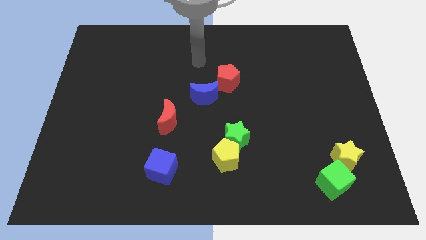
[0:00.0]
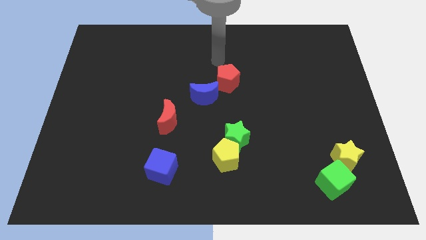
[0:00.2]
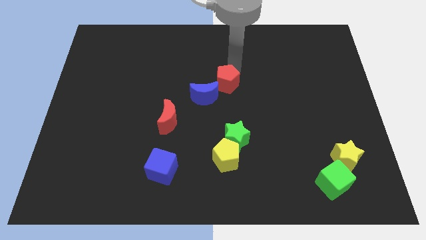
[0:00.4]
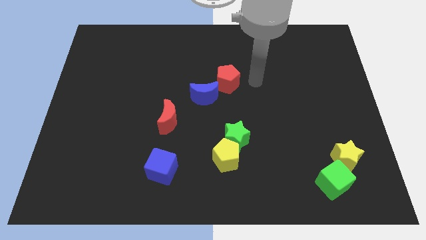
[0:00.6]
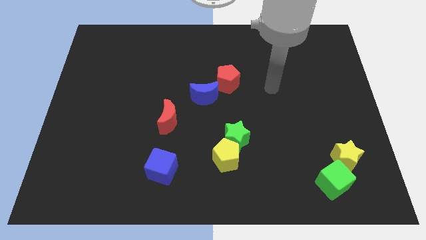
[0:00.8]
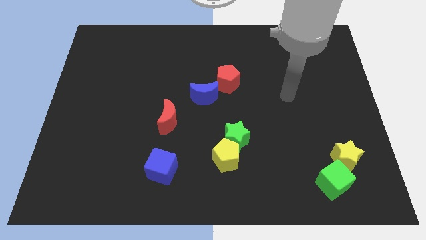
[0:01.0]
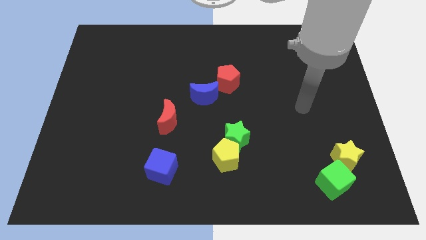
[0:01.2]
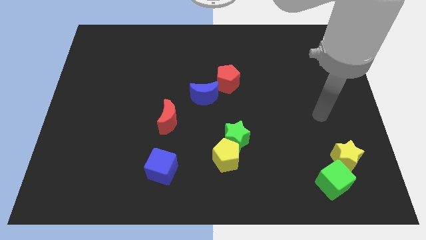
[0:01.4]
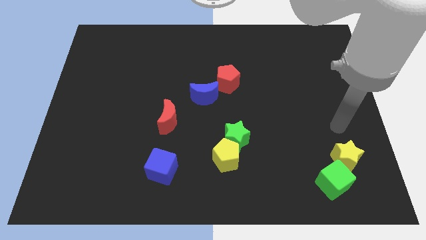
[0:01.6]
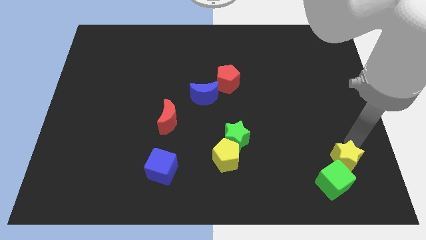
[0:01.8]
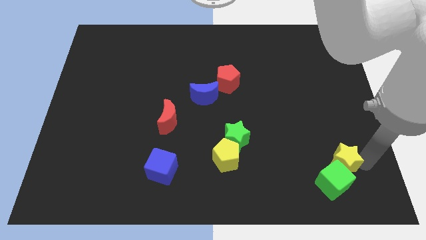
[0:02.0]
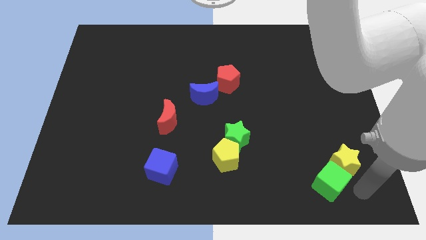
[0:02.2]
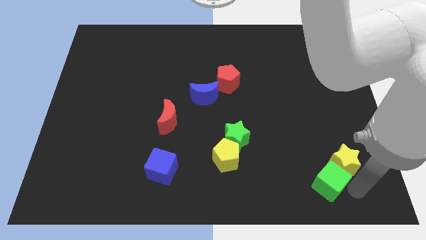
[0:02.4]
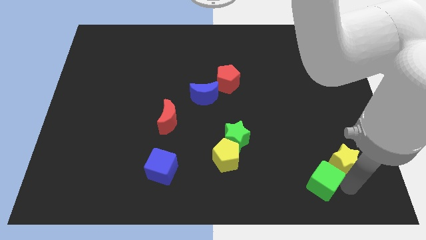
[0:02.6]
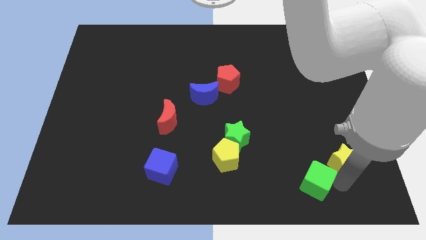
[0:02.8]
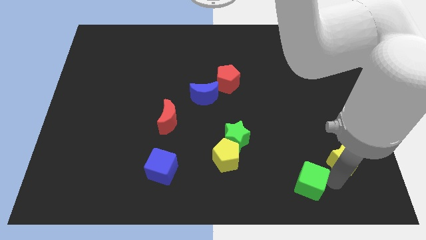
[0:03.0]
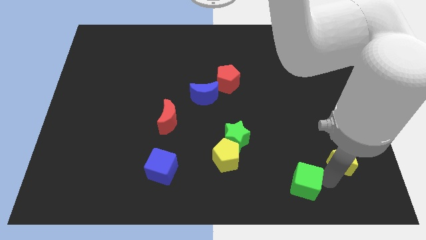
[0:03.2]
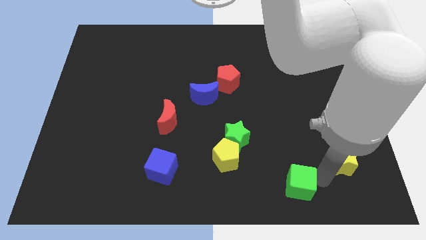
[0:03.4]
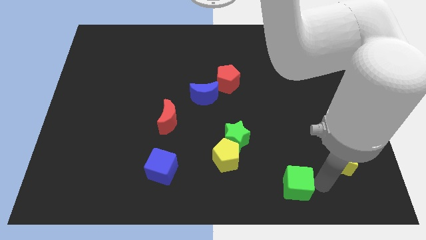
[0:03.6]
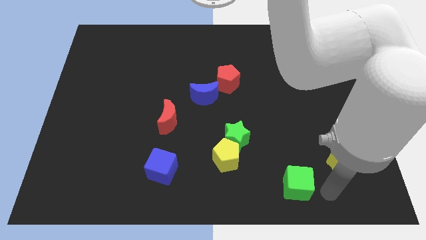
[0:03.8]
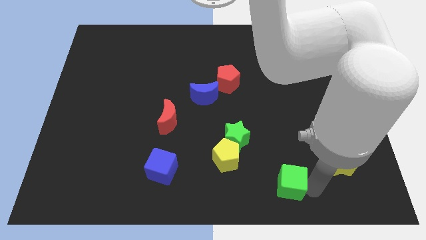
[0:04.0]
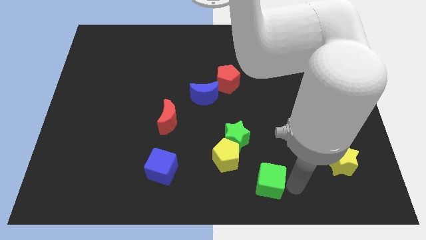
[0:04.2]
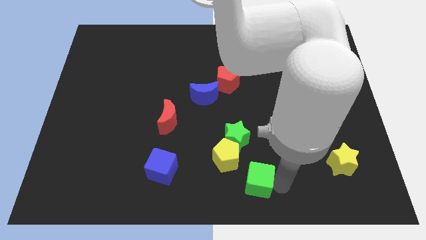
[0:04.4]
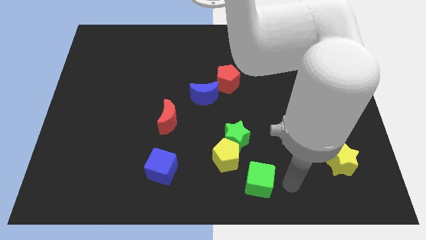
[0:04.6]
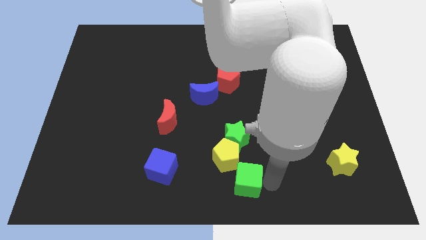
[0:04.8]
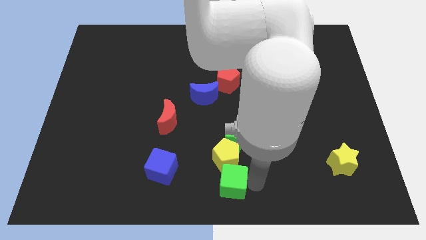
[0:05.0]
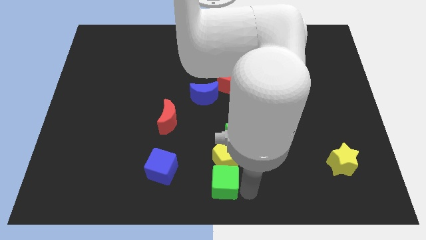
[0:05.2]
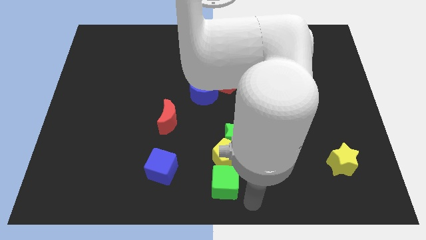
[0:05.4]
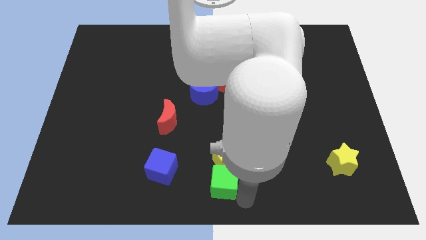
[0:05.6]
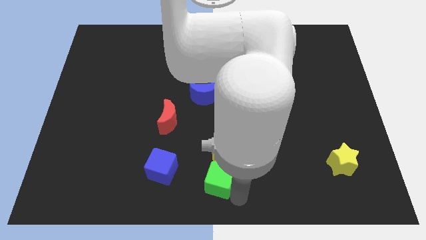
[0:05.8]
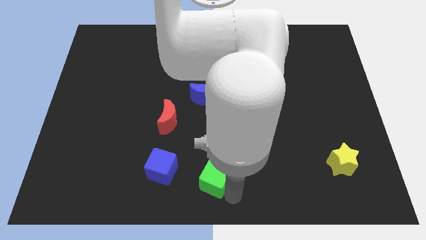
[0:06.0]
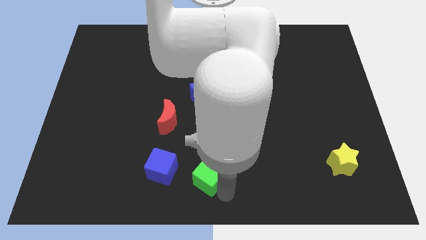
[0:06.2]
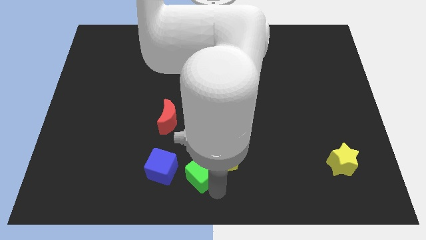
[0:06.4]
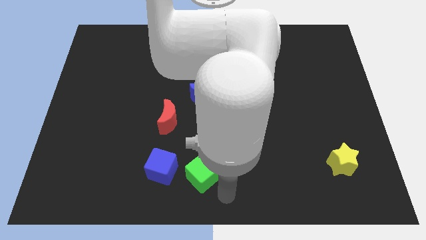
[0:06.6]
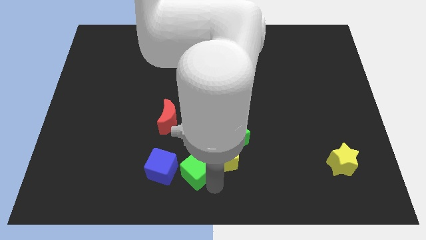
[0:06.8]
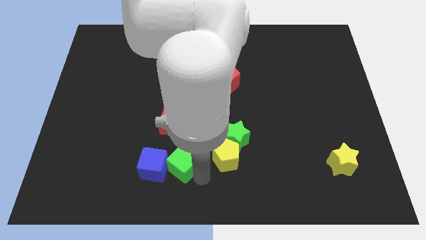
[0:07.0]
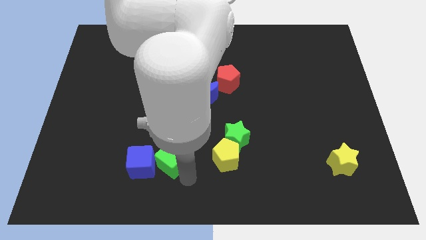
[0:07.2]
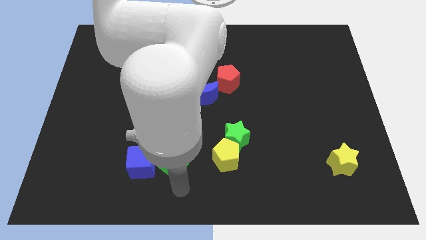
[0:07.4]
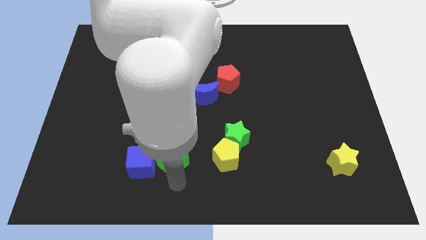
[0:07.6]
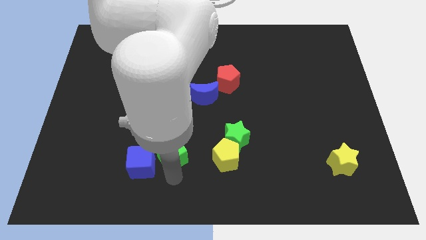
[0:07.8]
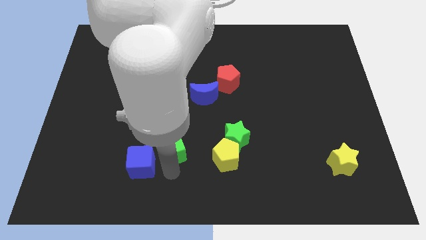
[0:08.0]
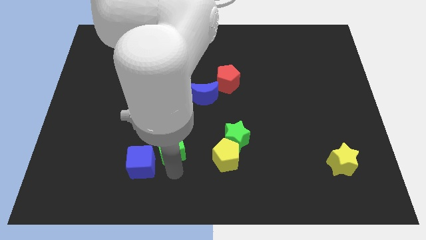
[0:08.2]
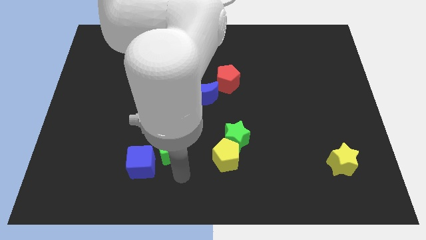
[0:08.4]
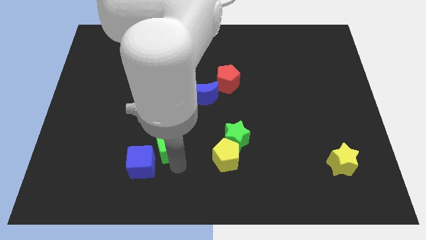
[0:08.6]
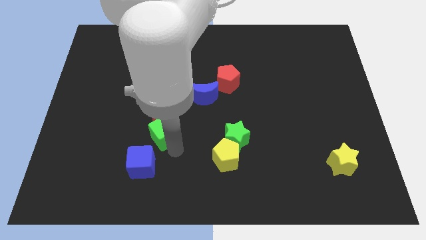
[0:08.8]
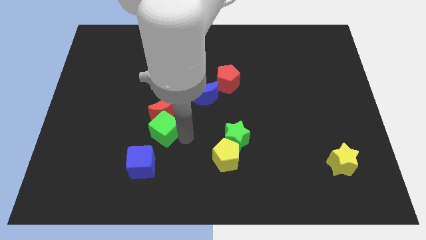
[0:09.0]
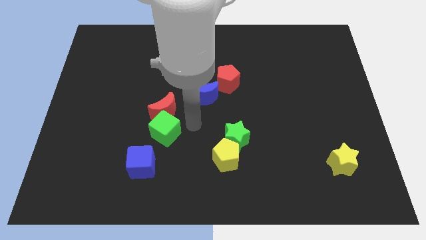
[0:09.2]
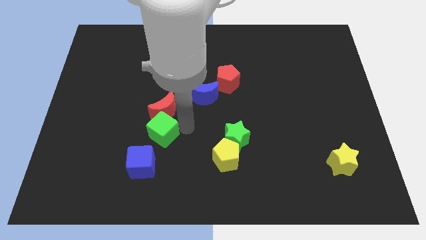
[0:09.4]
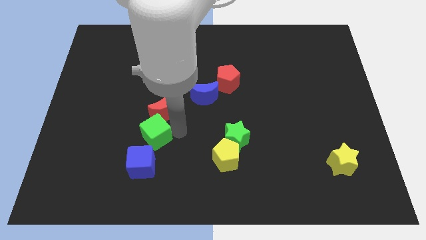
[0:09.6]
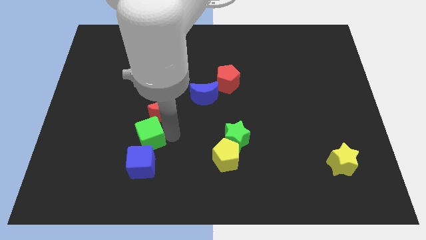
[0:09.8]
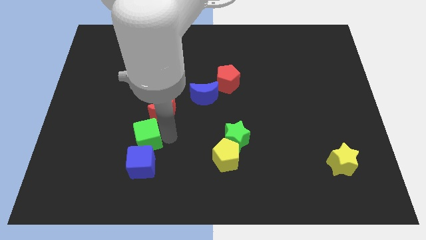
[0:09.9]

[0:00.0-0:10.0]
move the green cube to the top left side of the blue cube
